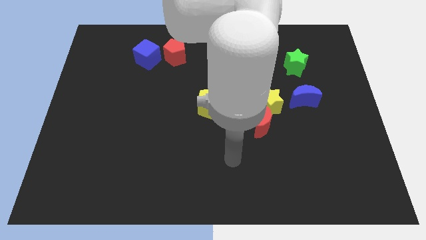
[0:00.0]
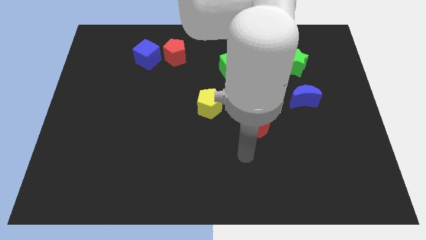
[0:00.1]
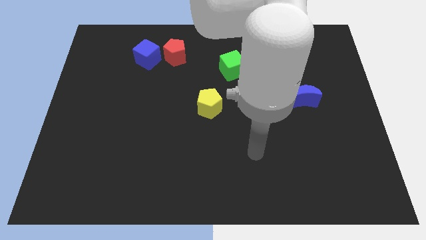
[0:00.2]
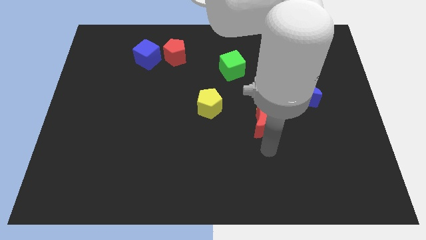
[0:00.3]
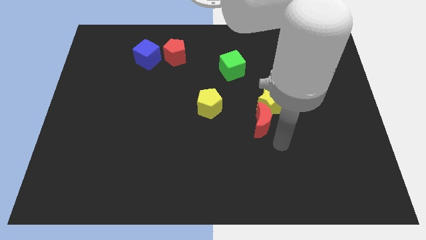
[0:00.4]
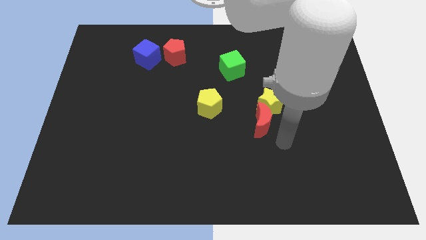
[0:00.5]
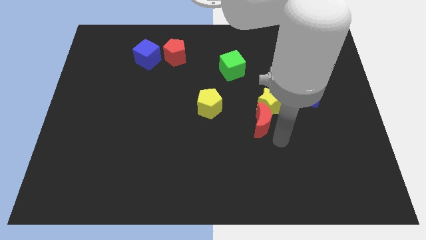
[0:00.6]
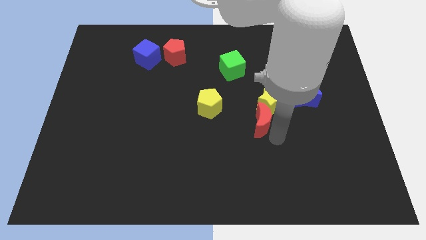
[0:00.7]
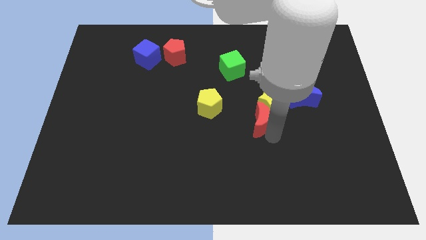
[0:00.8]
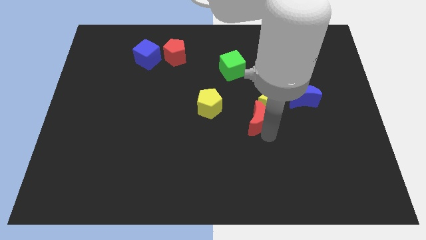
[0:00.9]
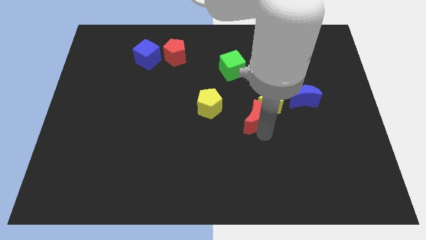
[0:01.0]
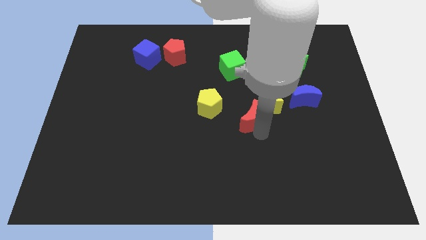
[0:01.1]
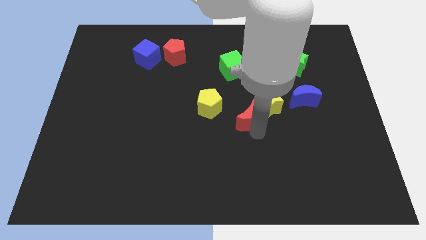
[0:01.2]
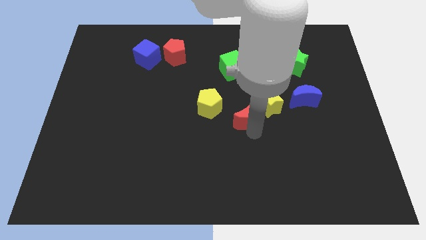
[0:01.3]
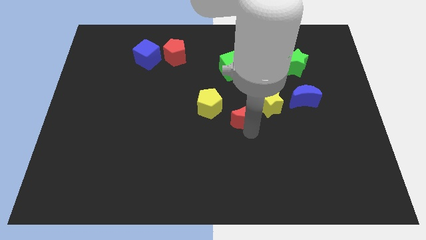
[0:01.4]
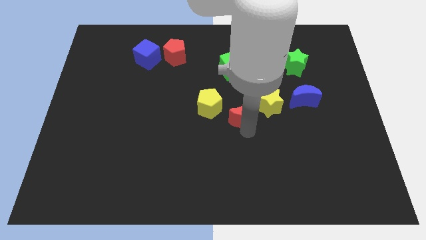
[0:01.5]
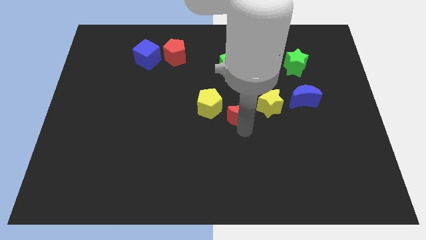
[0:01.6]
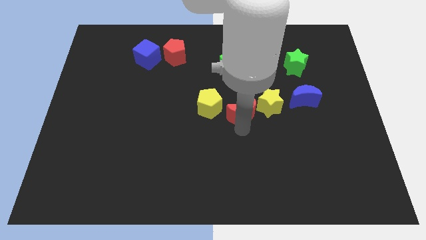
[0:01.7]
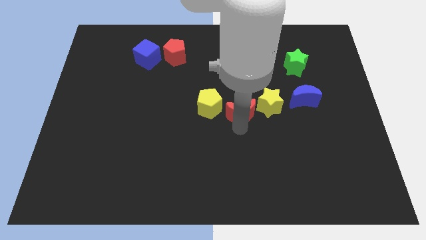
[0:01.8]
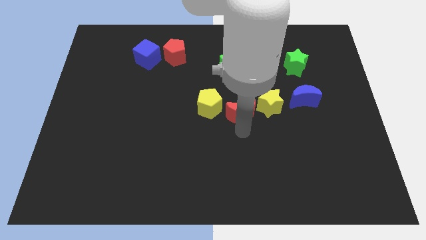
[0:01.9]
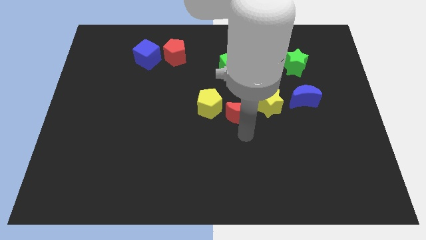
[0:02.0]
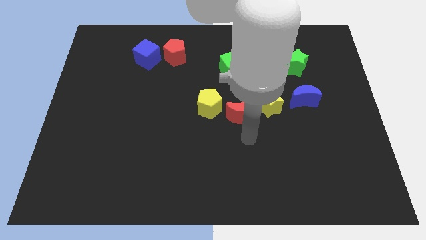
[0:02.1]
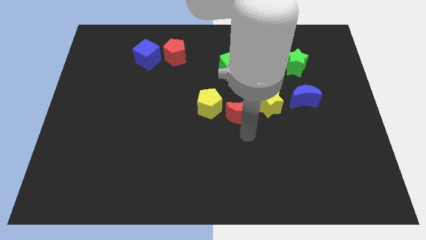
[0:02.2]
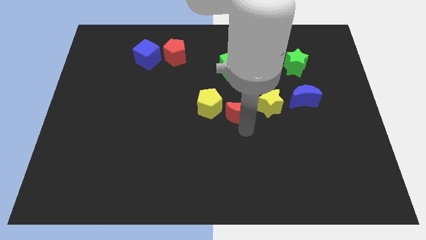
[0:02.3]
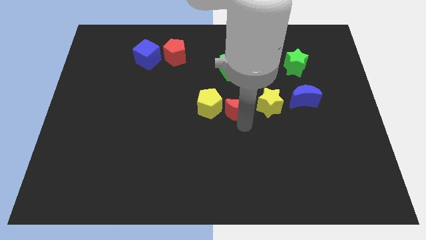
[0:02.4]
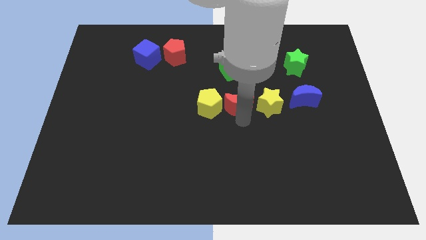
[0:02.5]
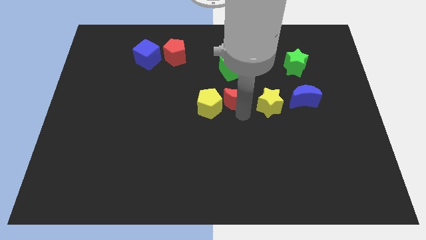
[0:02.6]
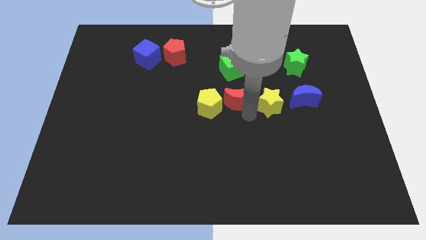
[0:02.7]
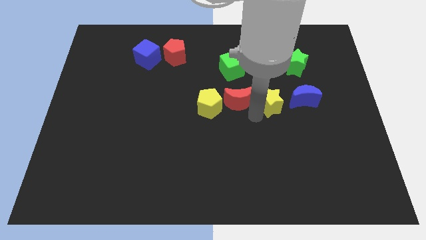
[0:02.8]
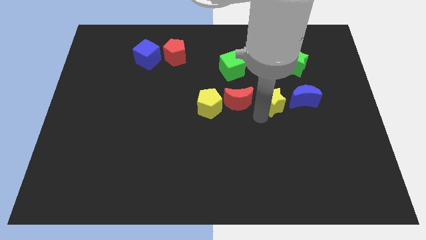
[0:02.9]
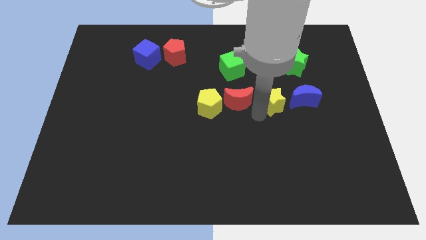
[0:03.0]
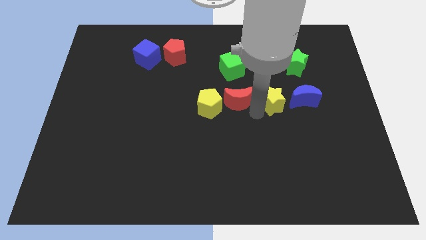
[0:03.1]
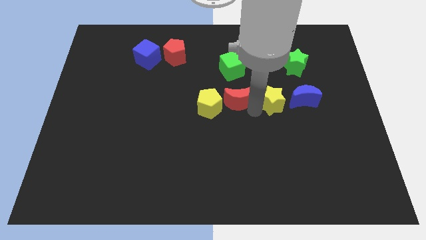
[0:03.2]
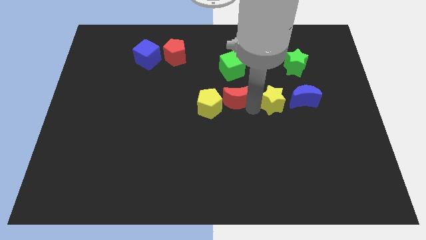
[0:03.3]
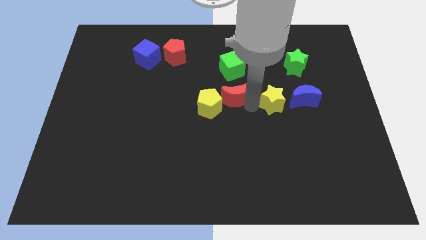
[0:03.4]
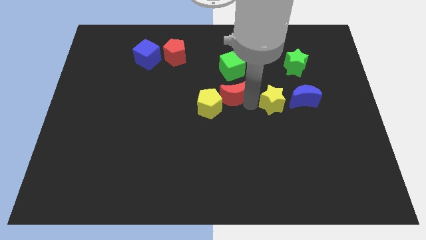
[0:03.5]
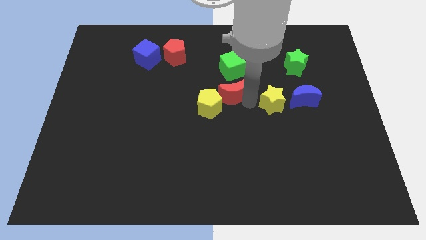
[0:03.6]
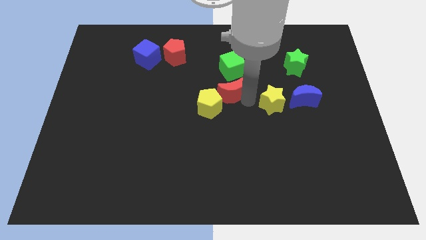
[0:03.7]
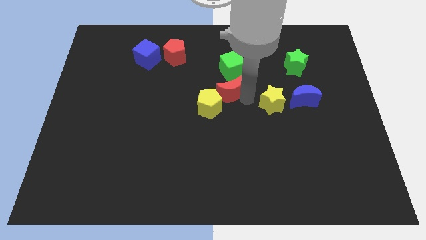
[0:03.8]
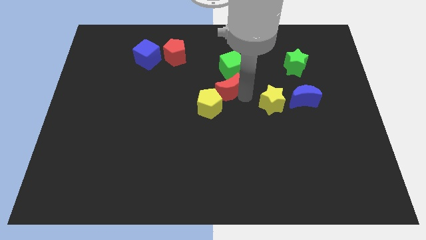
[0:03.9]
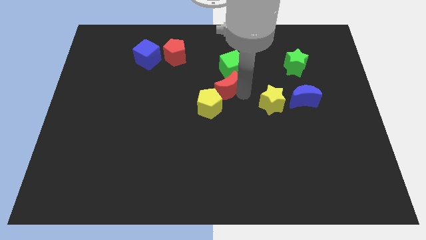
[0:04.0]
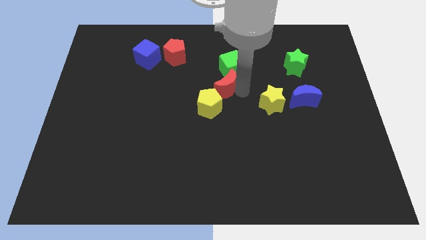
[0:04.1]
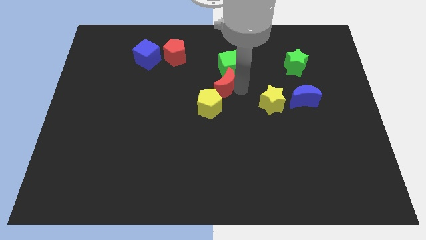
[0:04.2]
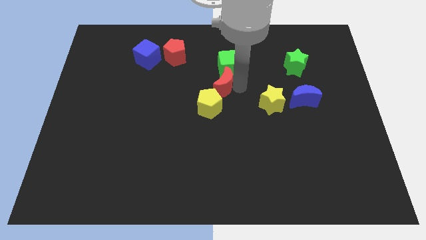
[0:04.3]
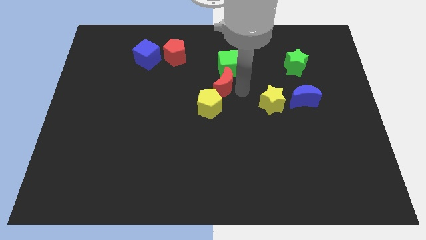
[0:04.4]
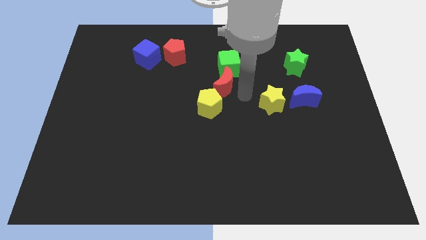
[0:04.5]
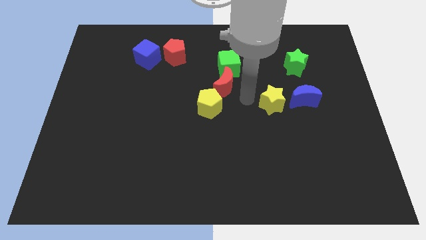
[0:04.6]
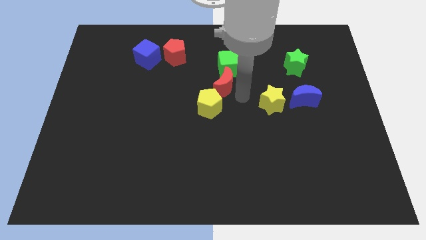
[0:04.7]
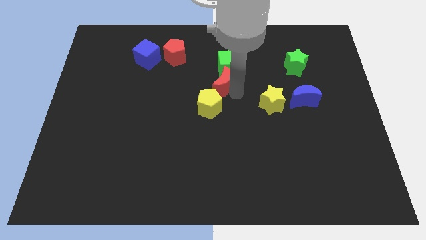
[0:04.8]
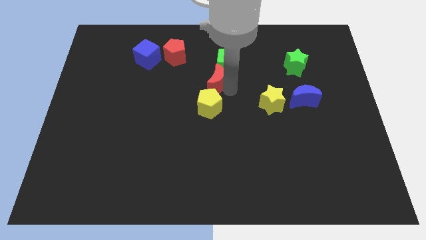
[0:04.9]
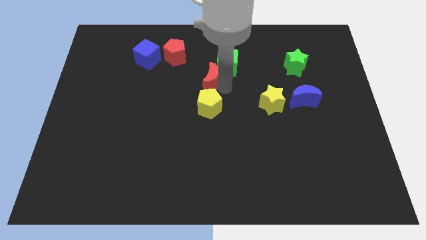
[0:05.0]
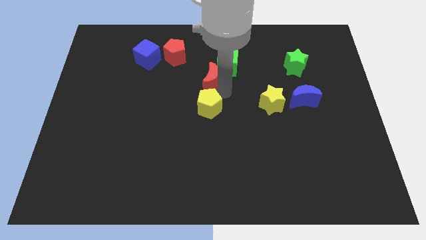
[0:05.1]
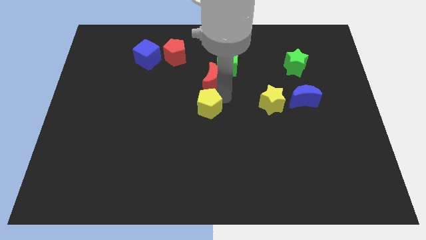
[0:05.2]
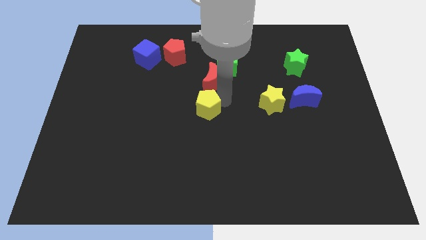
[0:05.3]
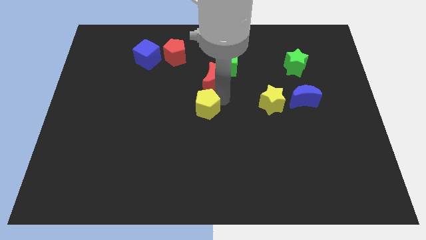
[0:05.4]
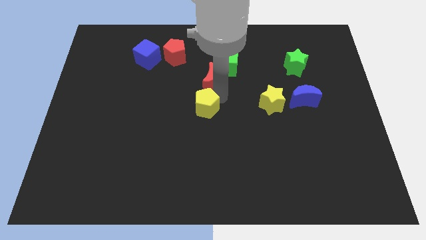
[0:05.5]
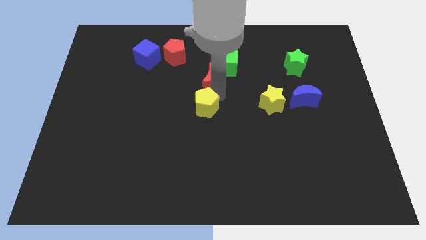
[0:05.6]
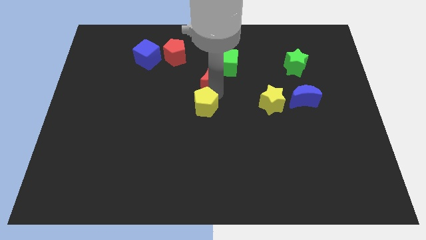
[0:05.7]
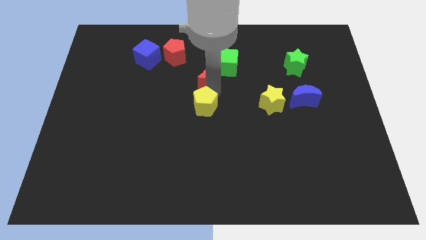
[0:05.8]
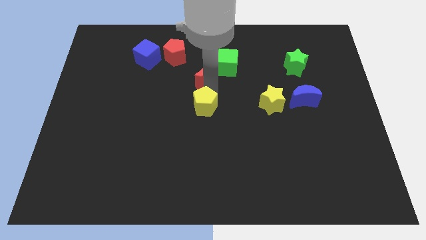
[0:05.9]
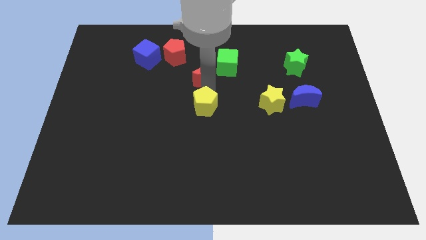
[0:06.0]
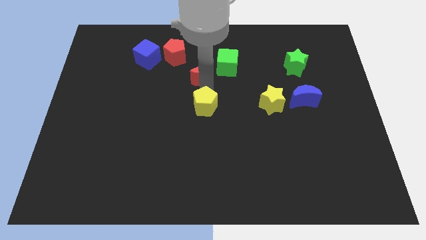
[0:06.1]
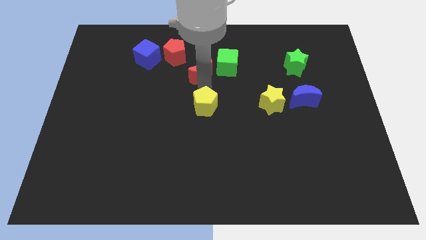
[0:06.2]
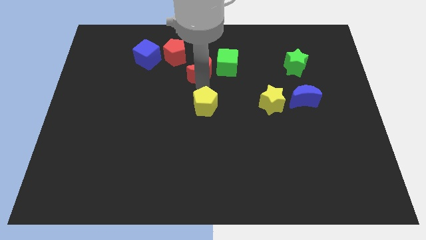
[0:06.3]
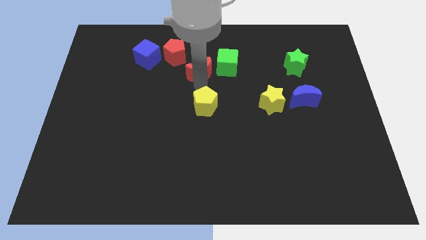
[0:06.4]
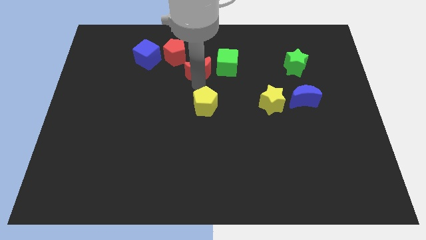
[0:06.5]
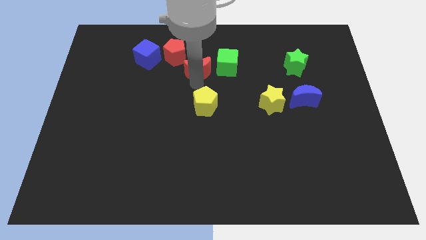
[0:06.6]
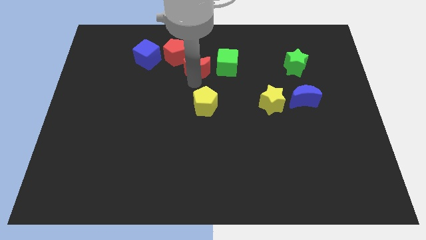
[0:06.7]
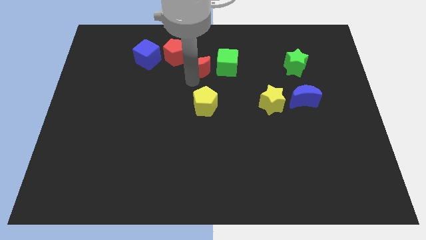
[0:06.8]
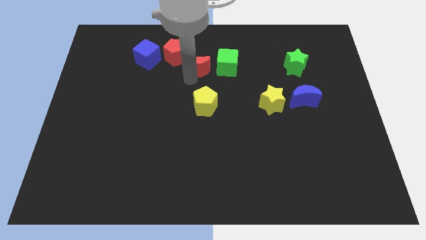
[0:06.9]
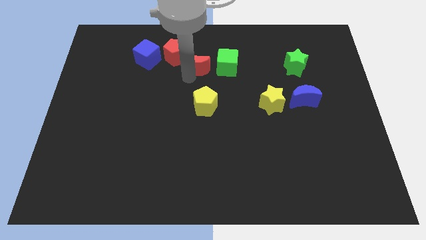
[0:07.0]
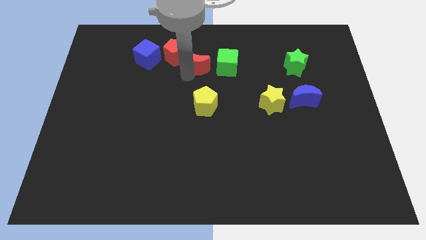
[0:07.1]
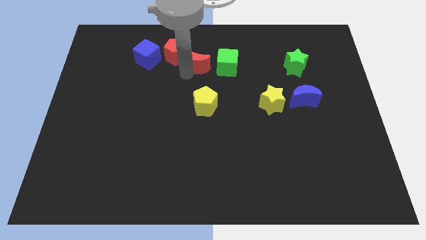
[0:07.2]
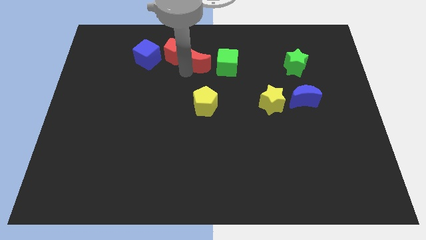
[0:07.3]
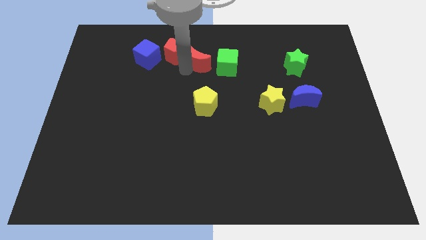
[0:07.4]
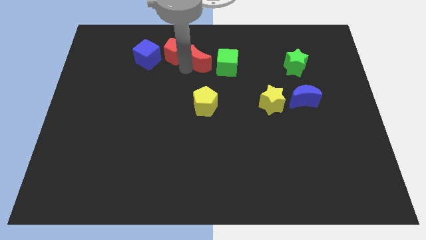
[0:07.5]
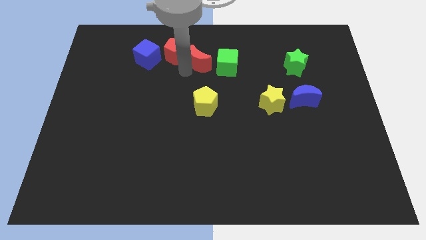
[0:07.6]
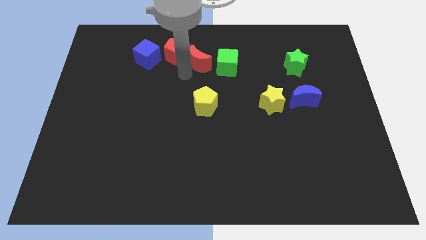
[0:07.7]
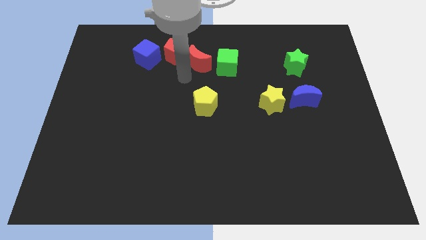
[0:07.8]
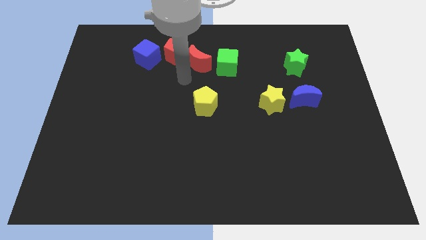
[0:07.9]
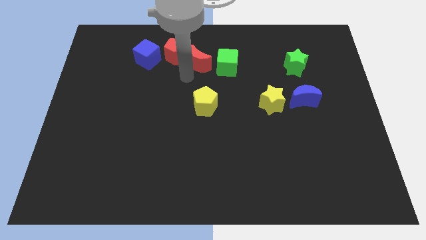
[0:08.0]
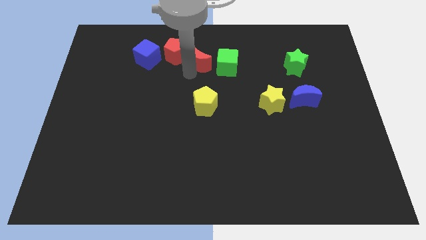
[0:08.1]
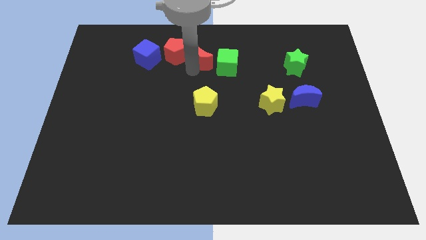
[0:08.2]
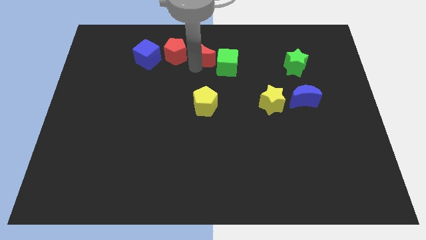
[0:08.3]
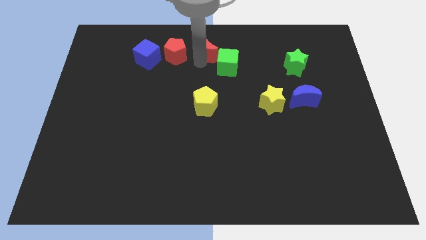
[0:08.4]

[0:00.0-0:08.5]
move the red moon to the top side
